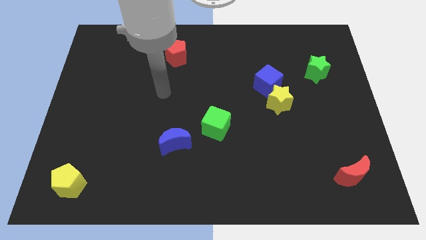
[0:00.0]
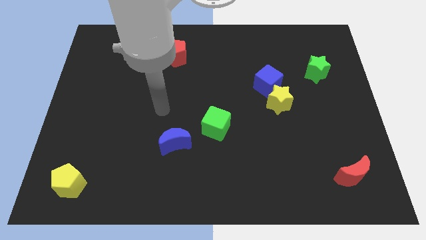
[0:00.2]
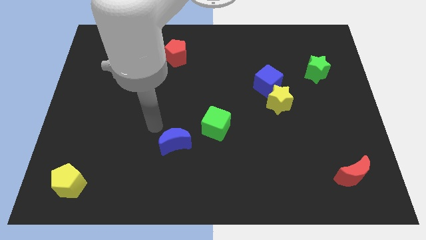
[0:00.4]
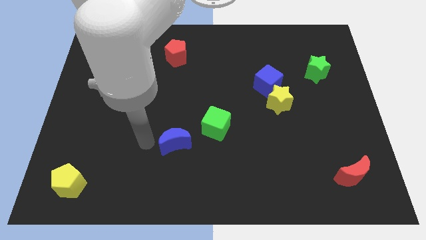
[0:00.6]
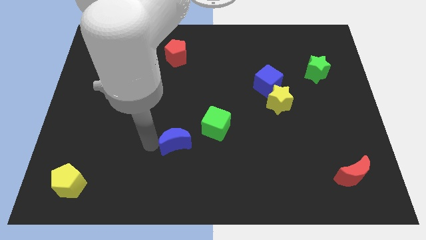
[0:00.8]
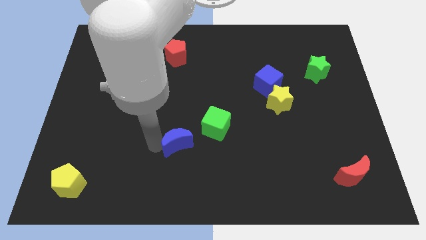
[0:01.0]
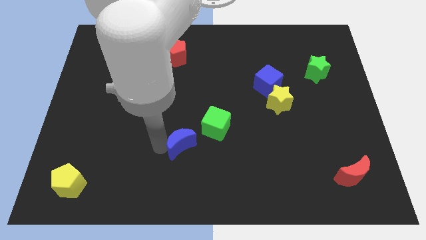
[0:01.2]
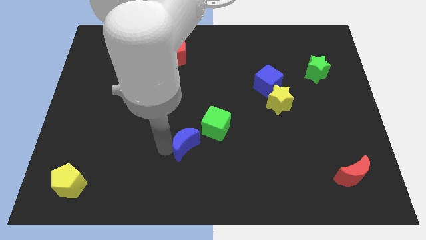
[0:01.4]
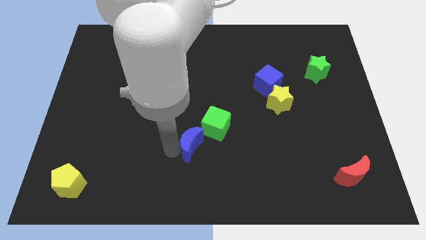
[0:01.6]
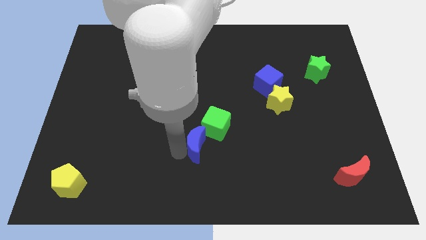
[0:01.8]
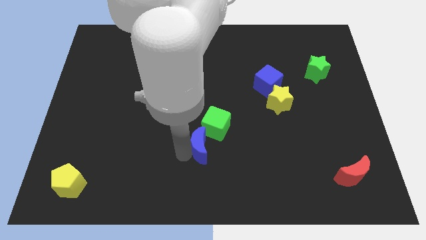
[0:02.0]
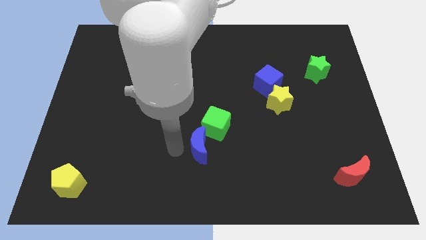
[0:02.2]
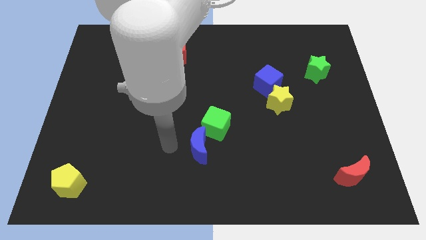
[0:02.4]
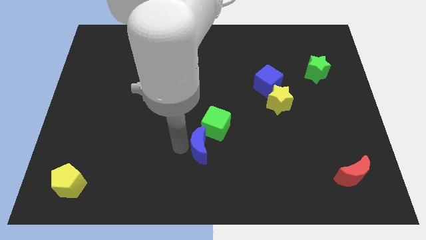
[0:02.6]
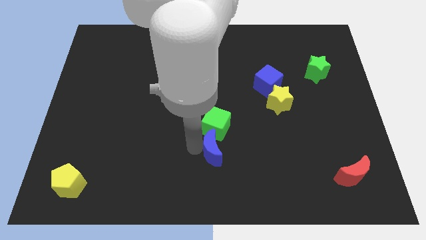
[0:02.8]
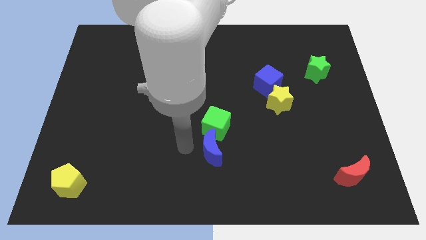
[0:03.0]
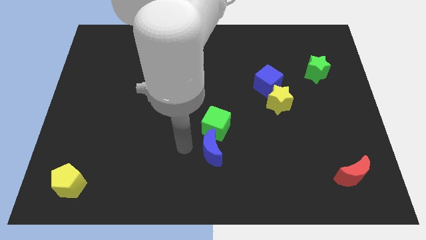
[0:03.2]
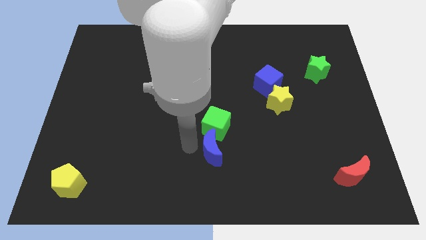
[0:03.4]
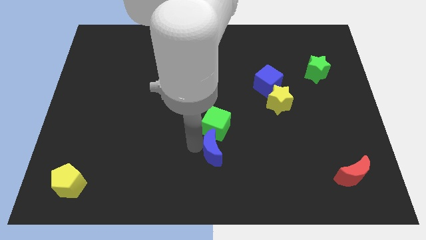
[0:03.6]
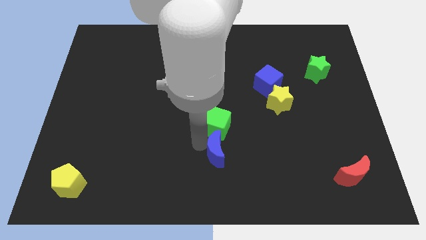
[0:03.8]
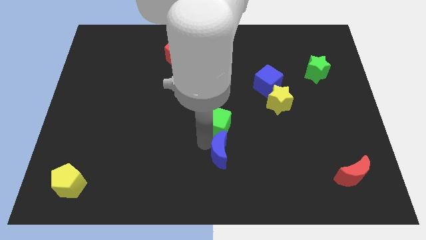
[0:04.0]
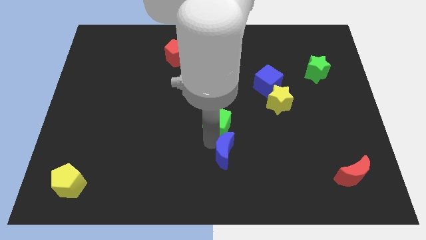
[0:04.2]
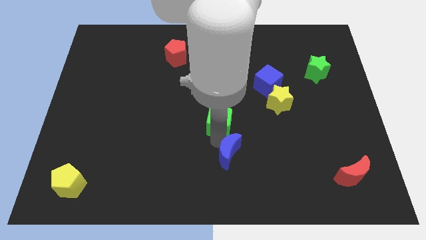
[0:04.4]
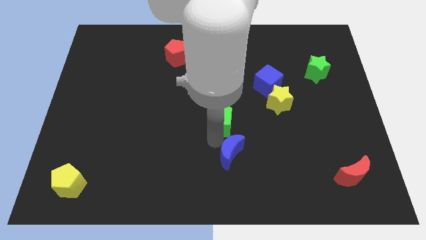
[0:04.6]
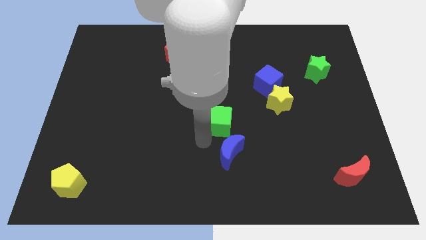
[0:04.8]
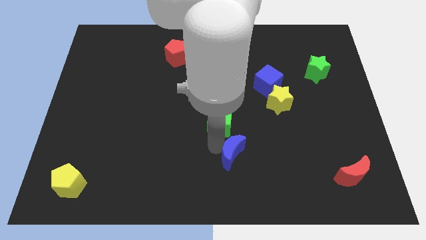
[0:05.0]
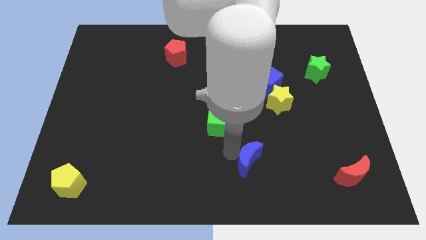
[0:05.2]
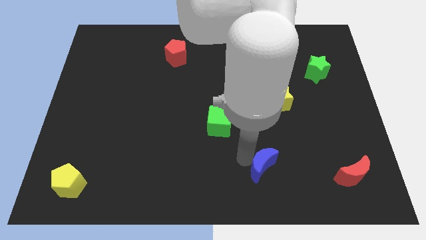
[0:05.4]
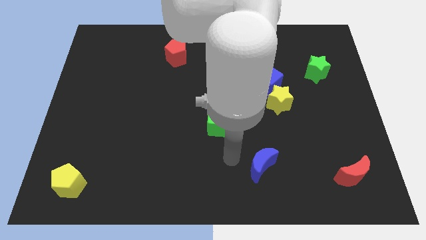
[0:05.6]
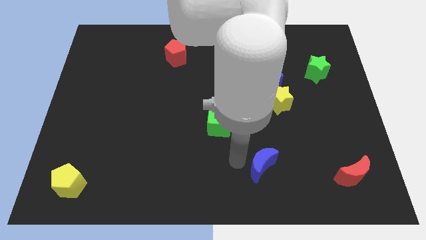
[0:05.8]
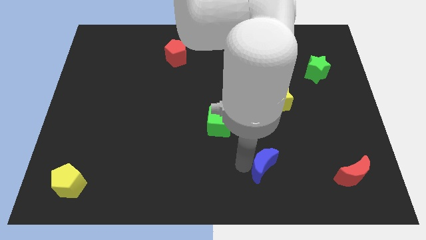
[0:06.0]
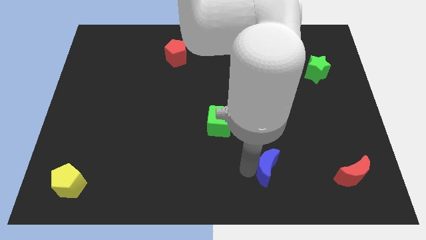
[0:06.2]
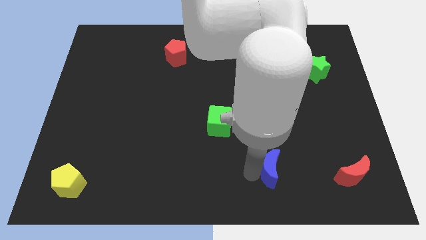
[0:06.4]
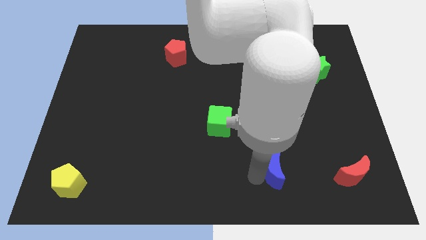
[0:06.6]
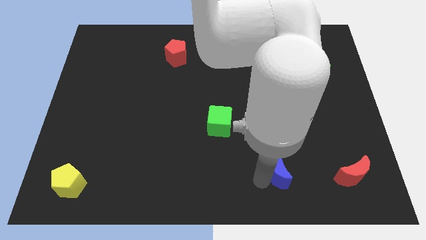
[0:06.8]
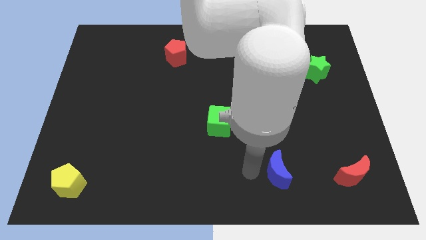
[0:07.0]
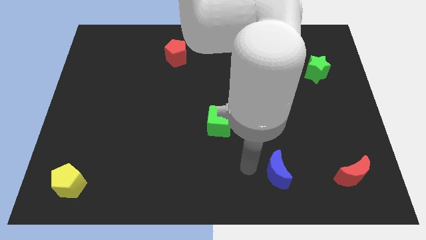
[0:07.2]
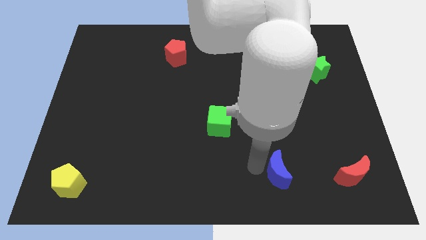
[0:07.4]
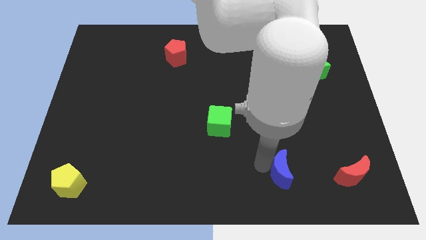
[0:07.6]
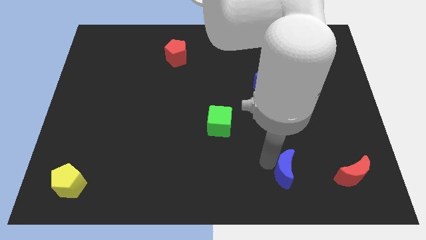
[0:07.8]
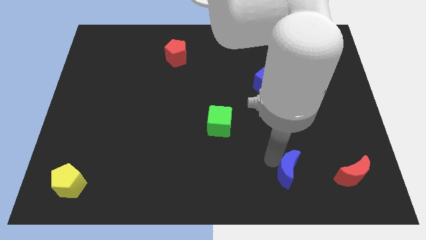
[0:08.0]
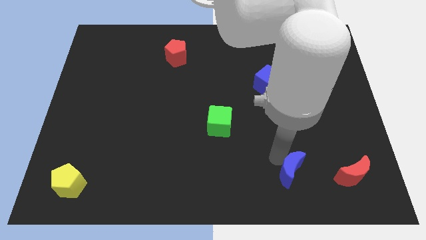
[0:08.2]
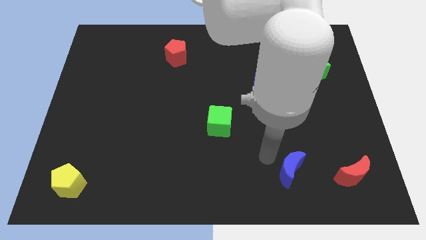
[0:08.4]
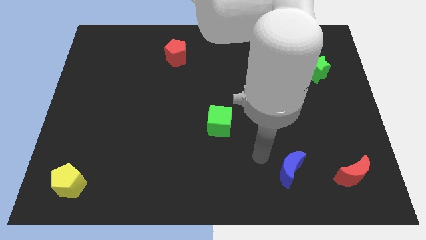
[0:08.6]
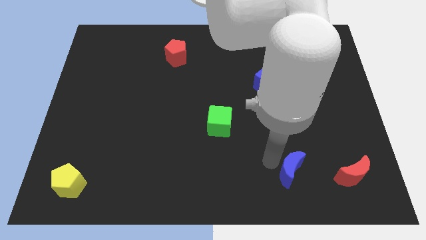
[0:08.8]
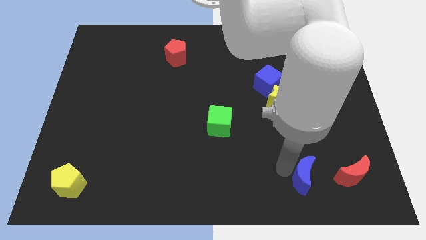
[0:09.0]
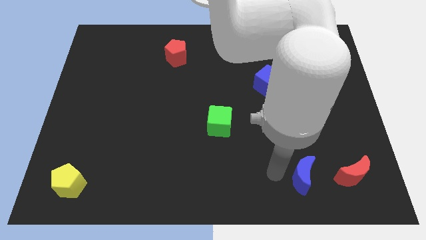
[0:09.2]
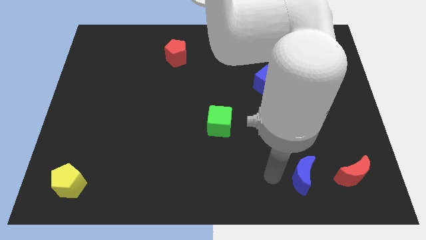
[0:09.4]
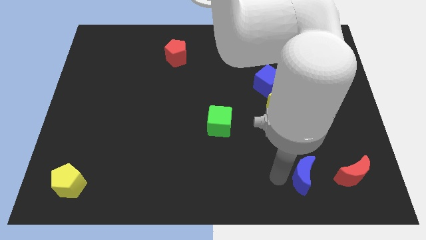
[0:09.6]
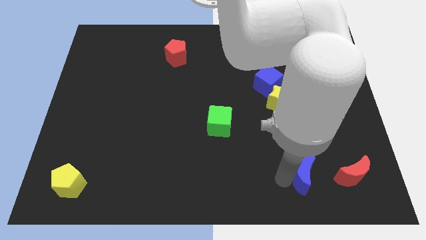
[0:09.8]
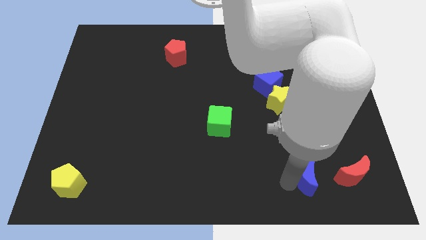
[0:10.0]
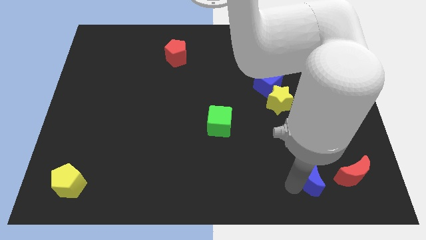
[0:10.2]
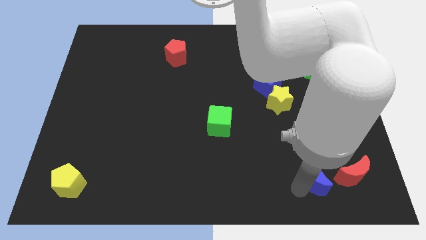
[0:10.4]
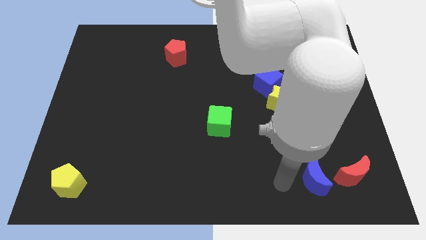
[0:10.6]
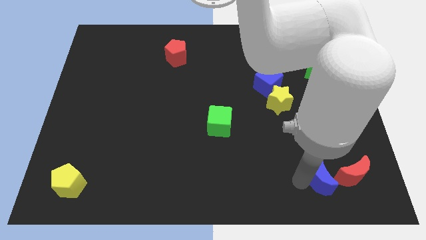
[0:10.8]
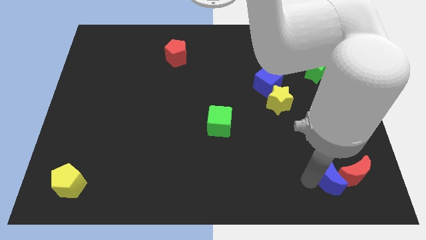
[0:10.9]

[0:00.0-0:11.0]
slide the blue moon towards the red moon

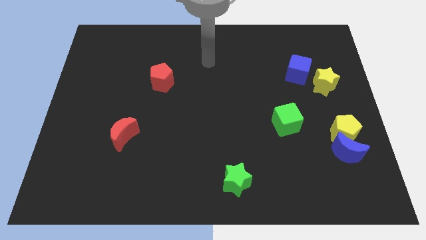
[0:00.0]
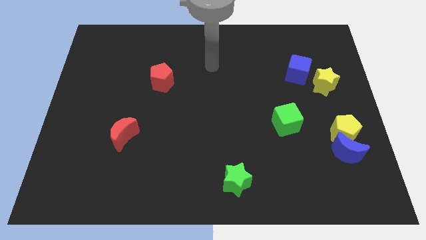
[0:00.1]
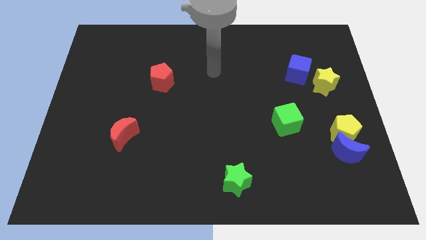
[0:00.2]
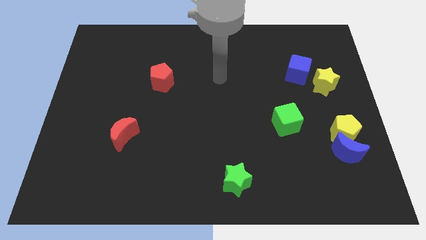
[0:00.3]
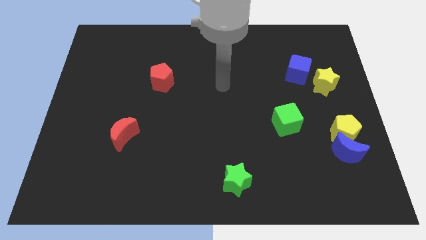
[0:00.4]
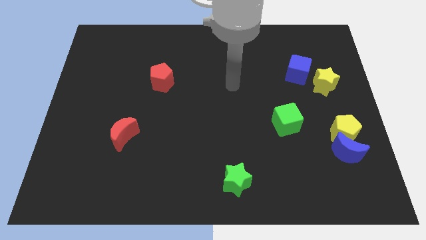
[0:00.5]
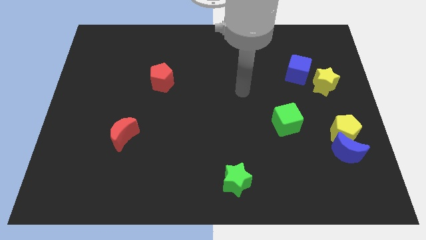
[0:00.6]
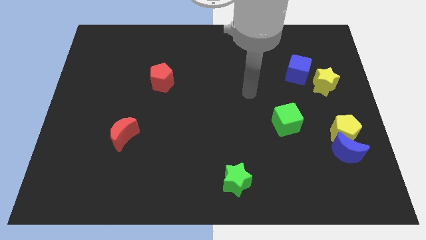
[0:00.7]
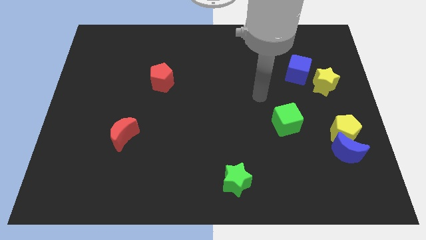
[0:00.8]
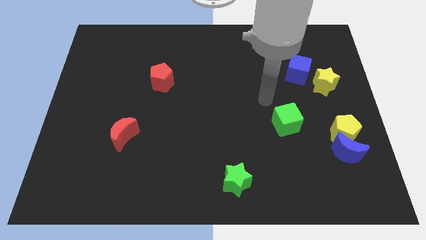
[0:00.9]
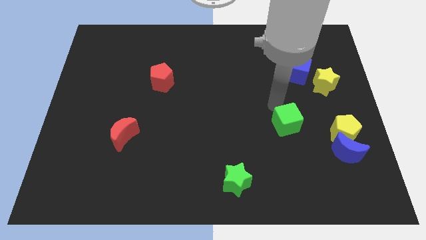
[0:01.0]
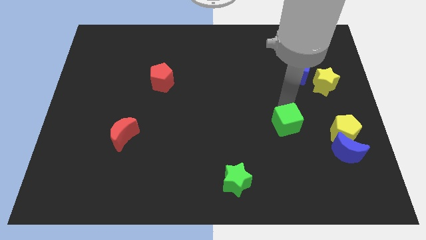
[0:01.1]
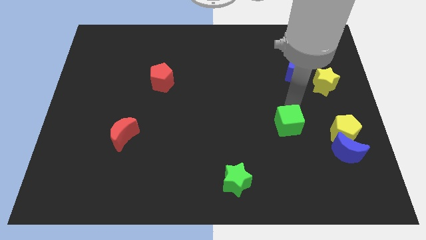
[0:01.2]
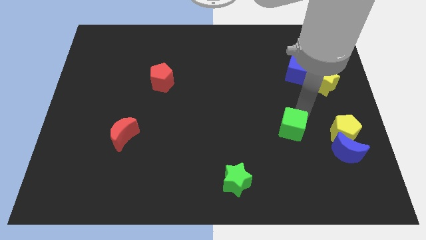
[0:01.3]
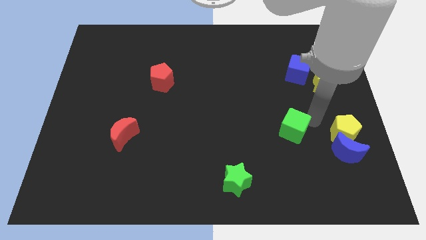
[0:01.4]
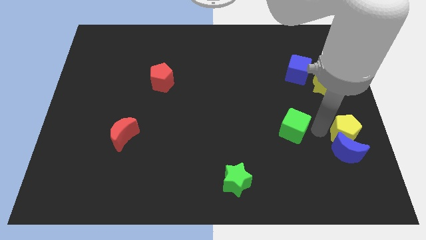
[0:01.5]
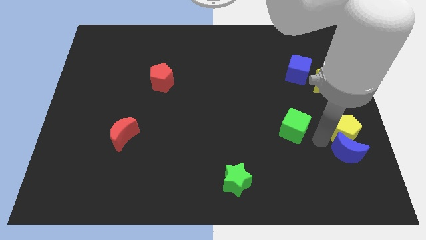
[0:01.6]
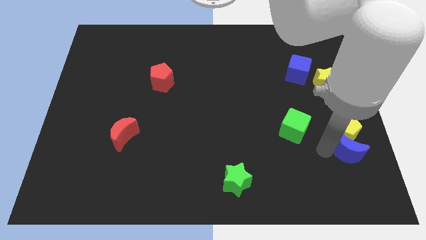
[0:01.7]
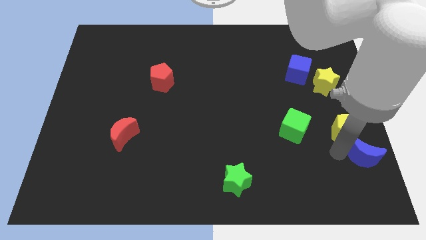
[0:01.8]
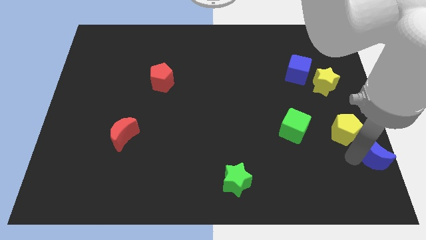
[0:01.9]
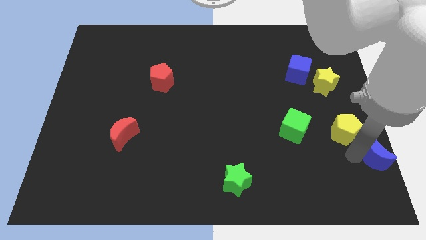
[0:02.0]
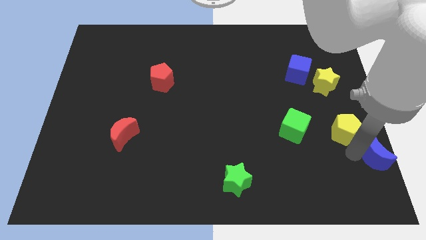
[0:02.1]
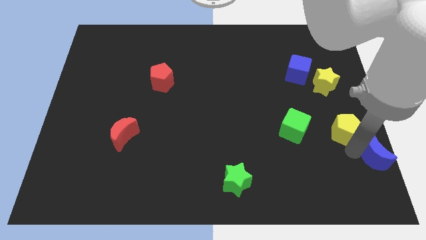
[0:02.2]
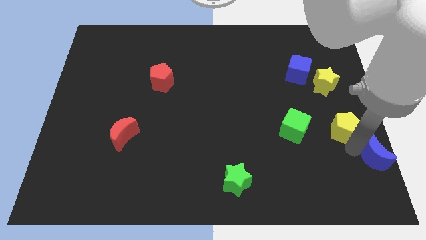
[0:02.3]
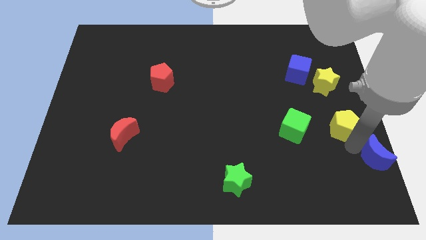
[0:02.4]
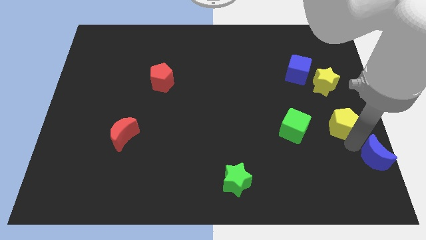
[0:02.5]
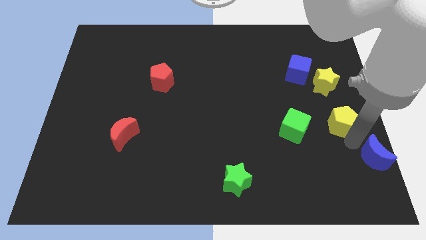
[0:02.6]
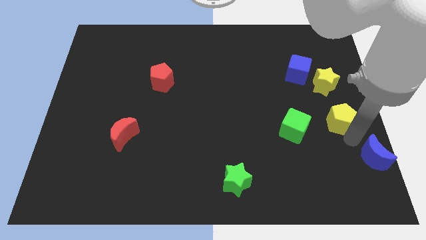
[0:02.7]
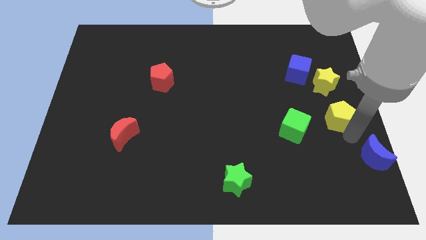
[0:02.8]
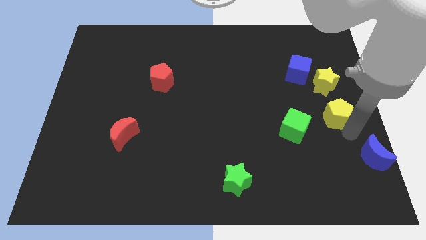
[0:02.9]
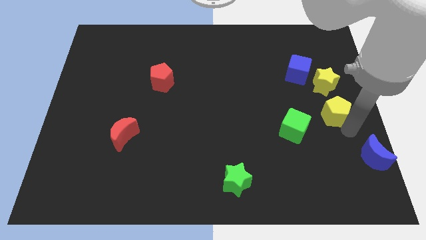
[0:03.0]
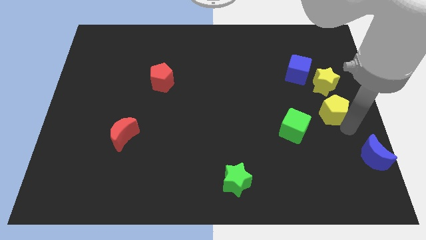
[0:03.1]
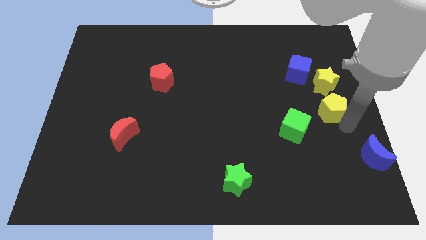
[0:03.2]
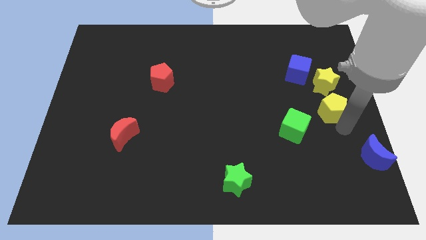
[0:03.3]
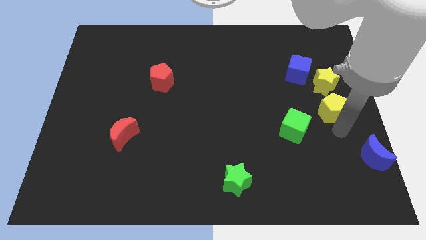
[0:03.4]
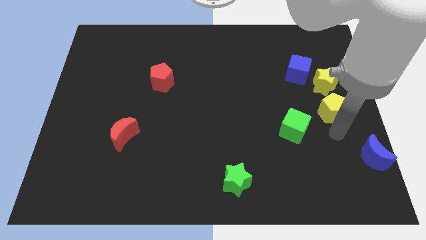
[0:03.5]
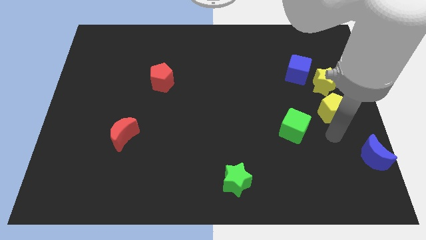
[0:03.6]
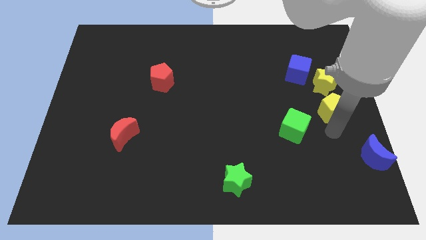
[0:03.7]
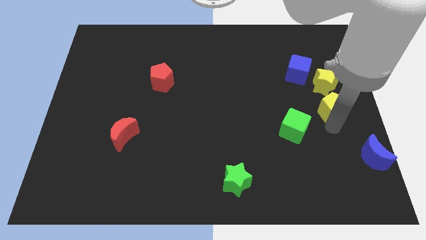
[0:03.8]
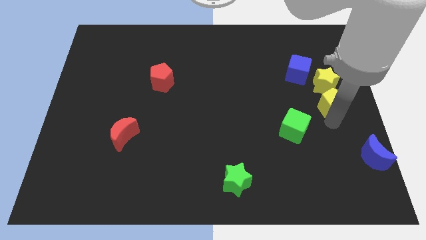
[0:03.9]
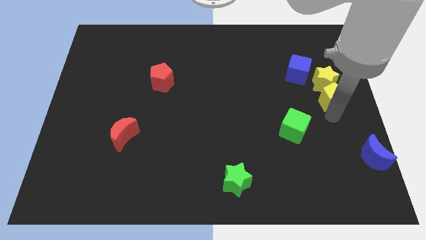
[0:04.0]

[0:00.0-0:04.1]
move the yellow pentagon next to the yellow star
